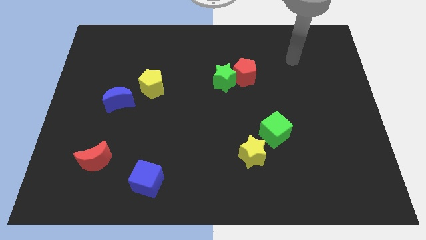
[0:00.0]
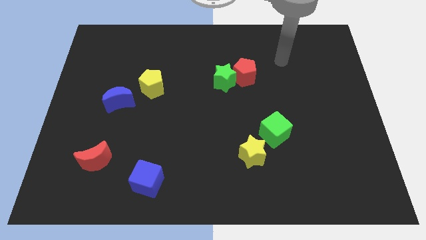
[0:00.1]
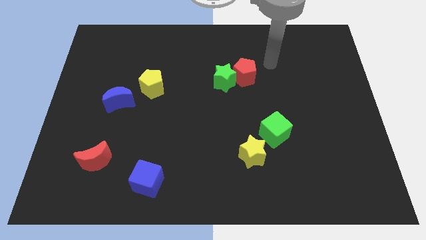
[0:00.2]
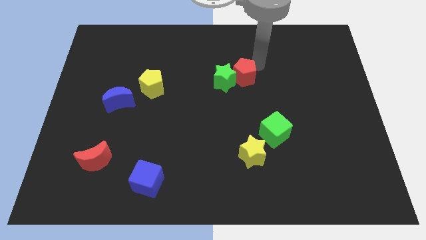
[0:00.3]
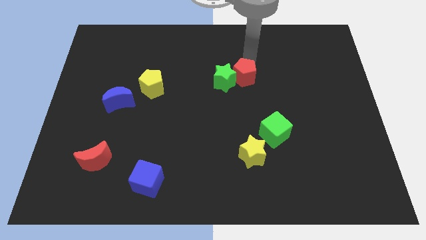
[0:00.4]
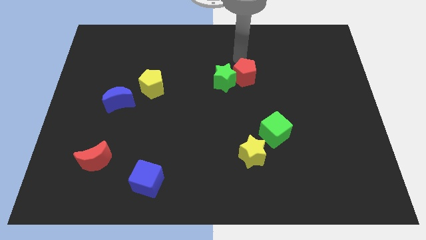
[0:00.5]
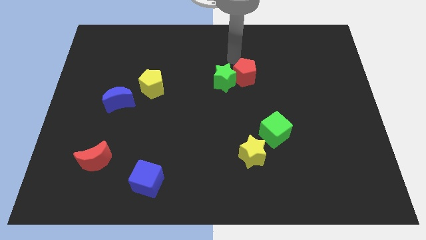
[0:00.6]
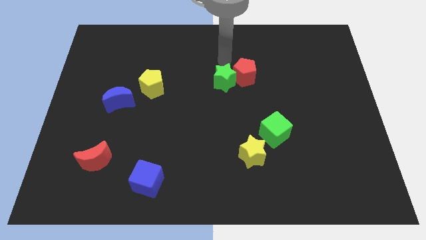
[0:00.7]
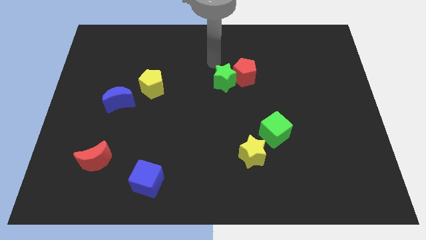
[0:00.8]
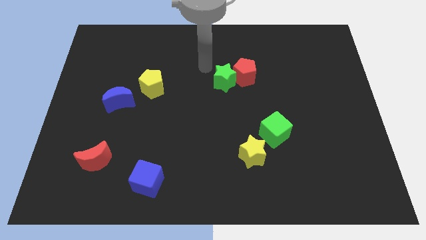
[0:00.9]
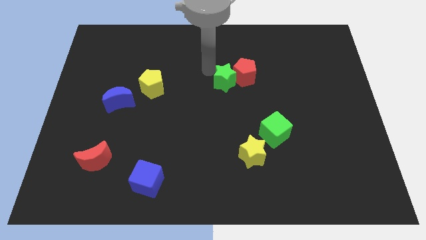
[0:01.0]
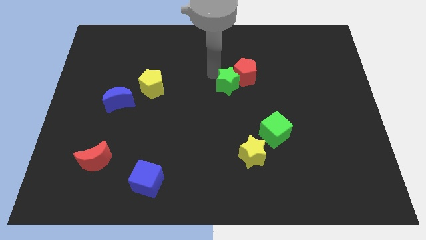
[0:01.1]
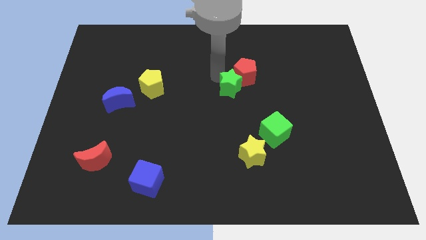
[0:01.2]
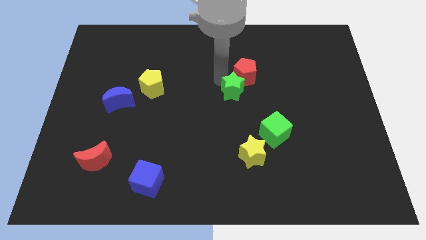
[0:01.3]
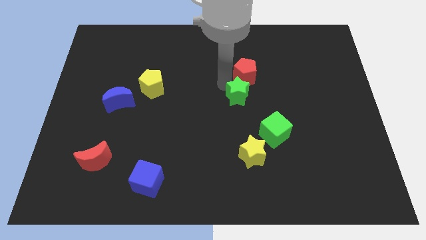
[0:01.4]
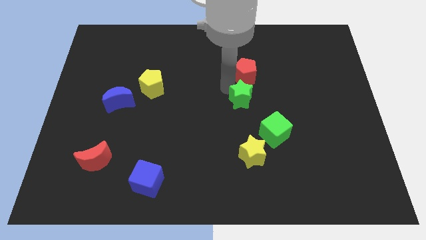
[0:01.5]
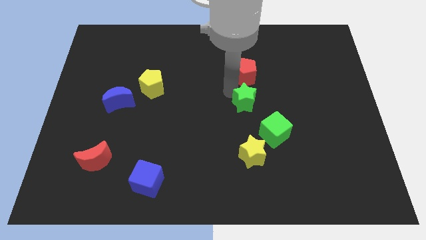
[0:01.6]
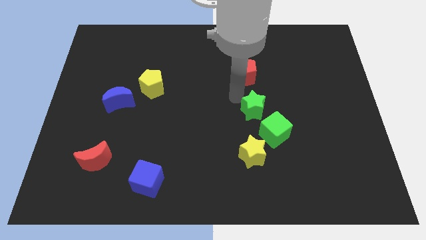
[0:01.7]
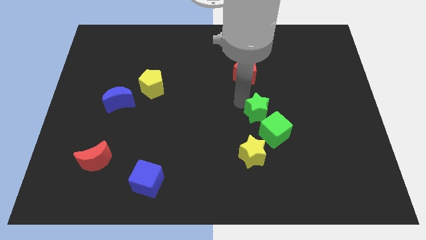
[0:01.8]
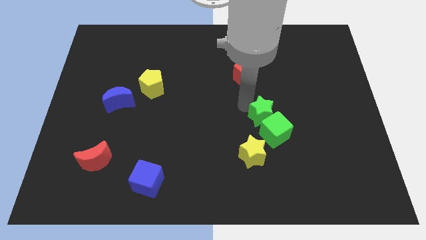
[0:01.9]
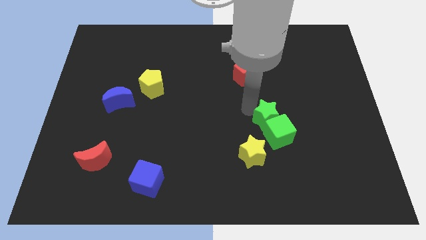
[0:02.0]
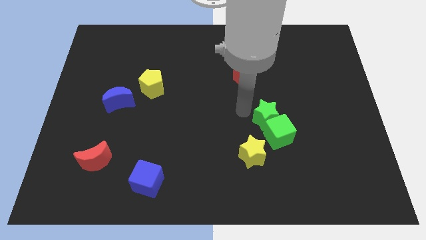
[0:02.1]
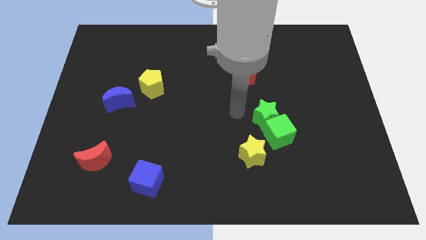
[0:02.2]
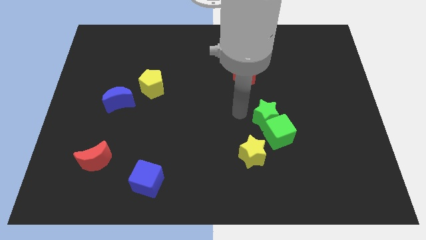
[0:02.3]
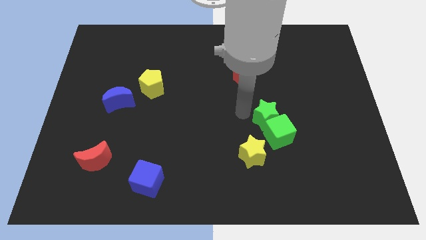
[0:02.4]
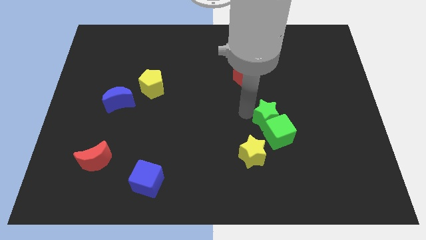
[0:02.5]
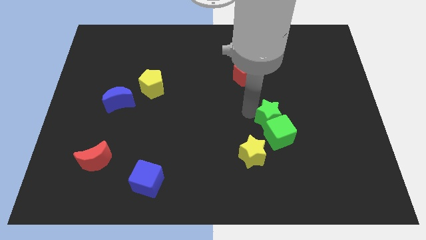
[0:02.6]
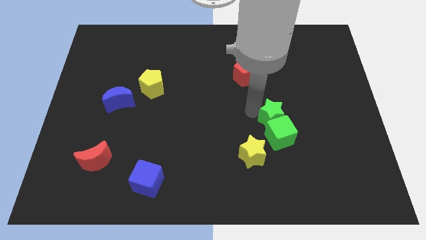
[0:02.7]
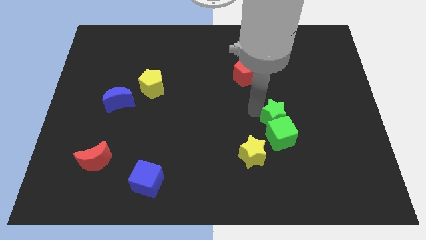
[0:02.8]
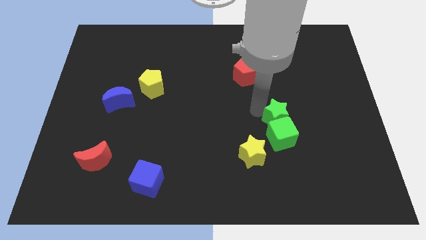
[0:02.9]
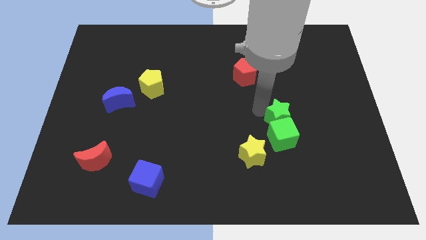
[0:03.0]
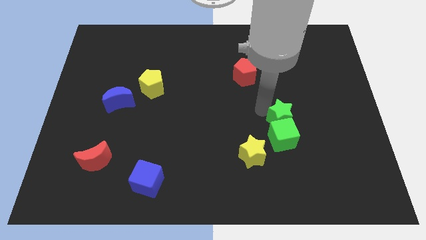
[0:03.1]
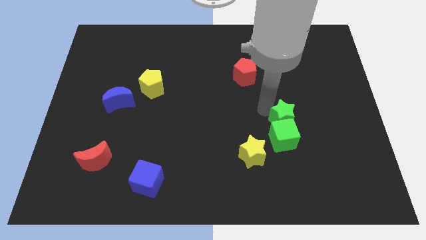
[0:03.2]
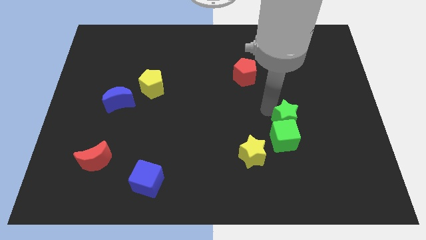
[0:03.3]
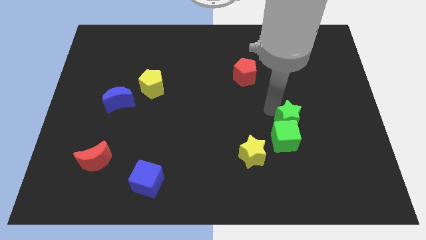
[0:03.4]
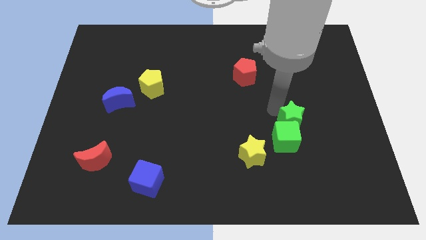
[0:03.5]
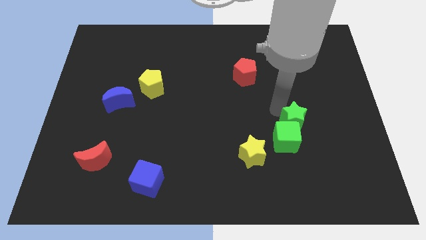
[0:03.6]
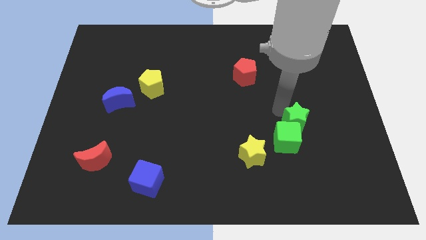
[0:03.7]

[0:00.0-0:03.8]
move the green star down and to the right

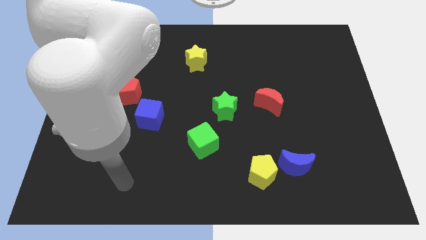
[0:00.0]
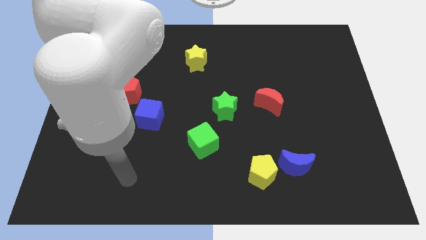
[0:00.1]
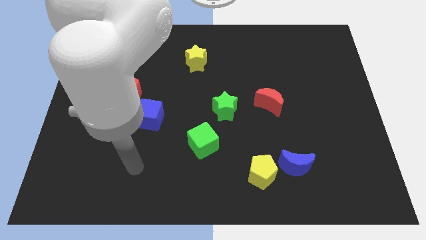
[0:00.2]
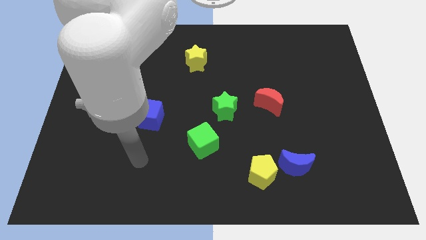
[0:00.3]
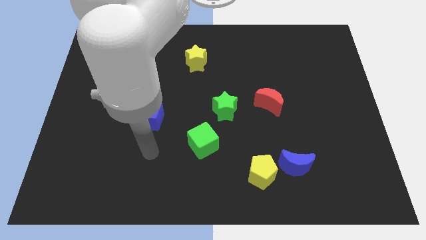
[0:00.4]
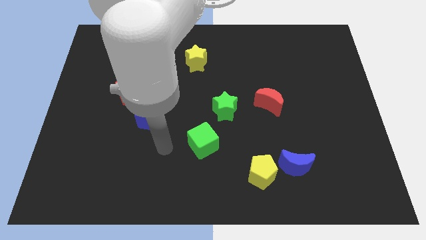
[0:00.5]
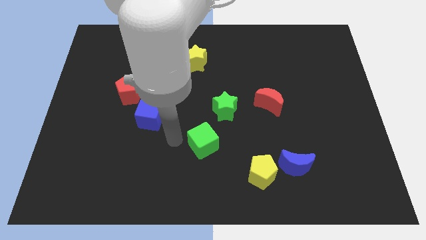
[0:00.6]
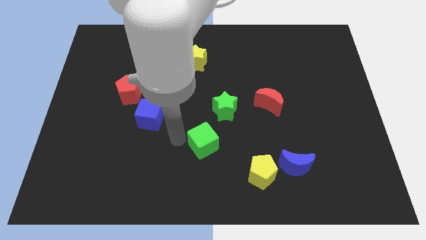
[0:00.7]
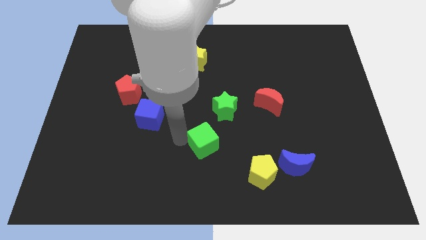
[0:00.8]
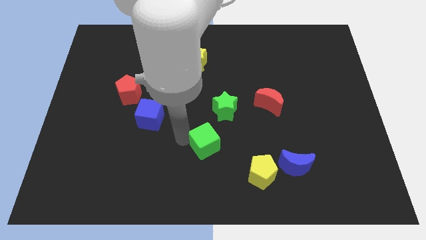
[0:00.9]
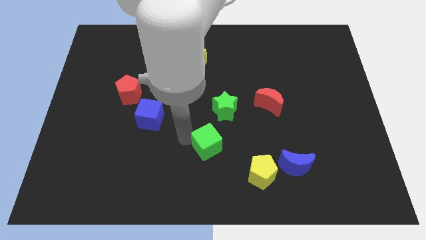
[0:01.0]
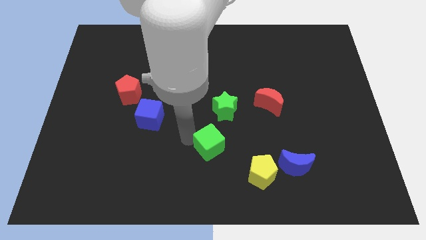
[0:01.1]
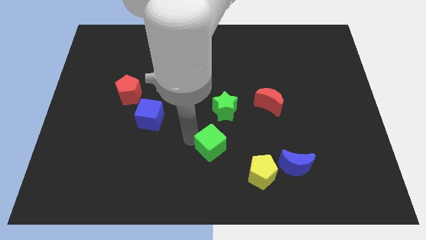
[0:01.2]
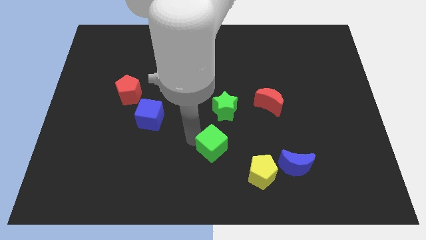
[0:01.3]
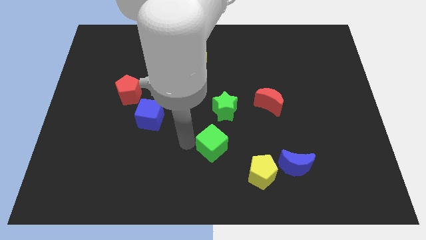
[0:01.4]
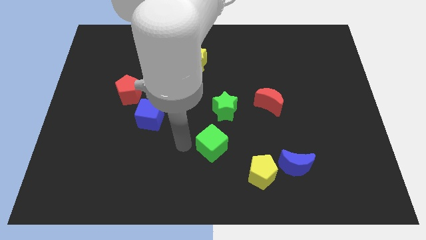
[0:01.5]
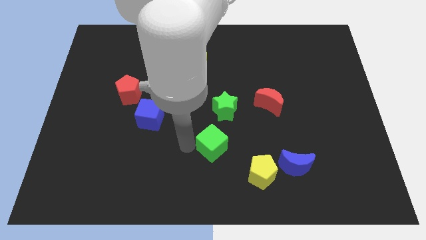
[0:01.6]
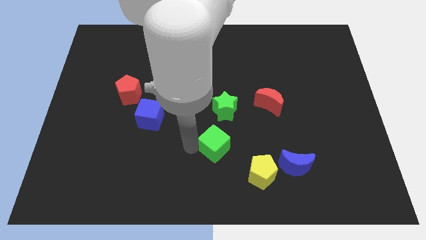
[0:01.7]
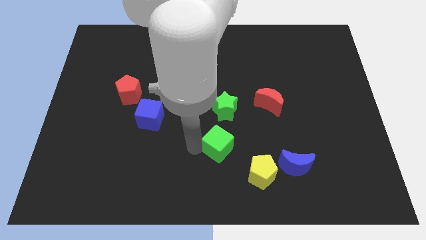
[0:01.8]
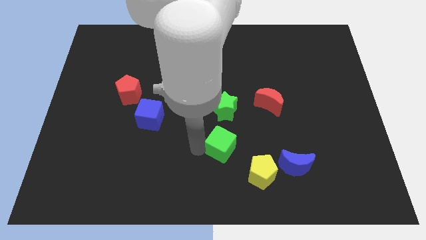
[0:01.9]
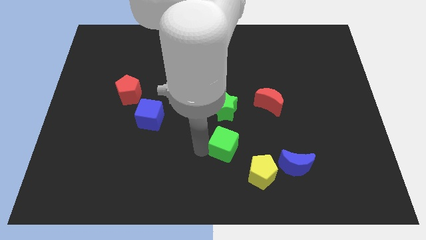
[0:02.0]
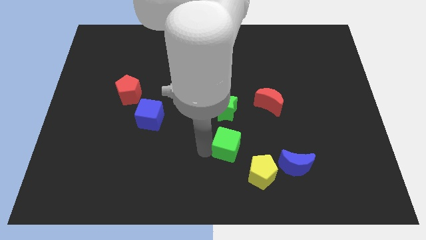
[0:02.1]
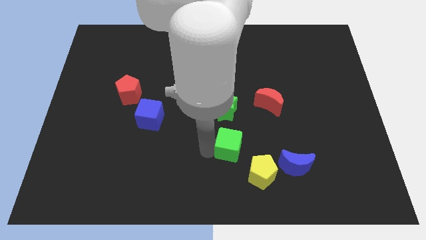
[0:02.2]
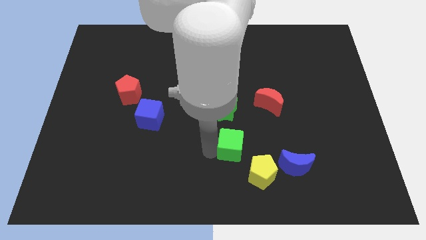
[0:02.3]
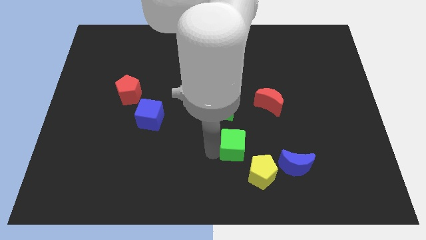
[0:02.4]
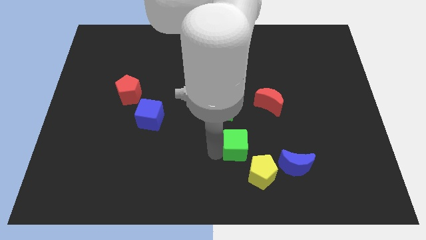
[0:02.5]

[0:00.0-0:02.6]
slide the green cube a bit right

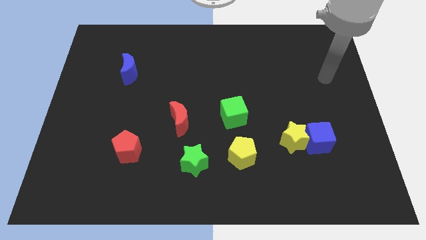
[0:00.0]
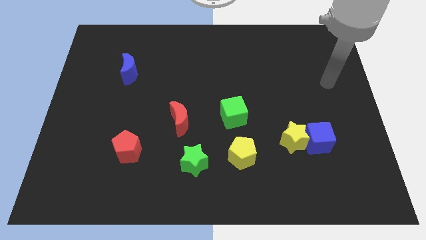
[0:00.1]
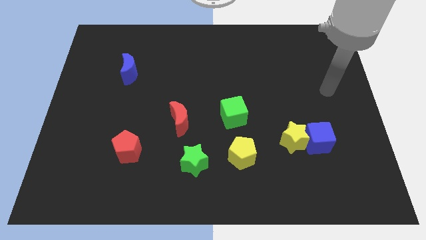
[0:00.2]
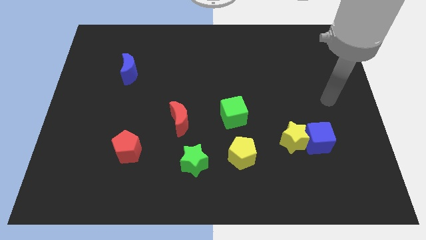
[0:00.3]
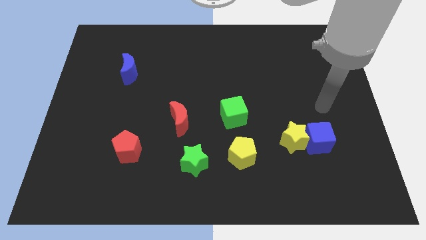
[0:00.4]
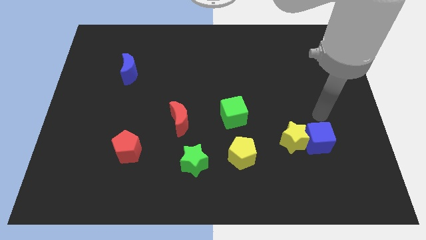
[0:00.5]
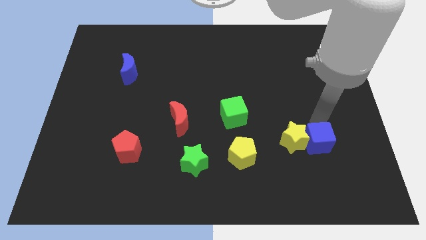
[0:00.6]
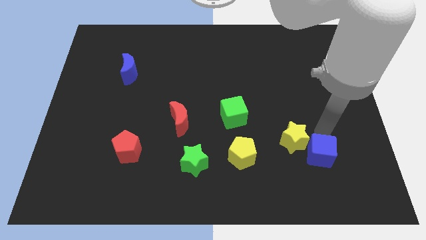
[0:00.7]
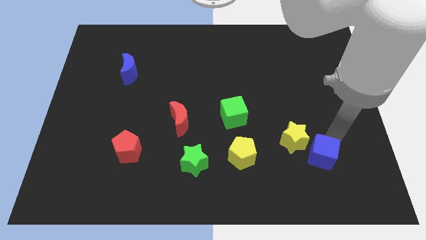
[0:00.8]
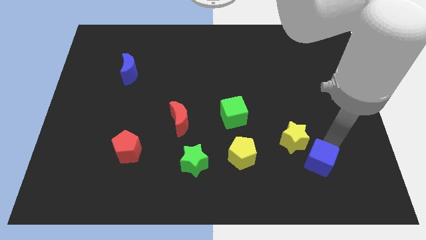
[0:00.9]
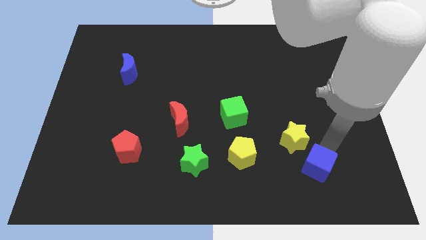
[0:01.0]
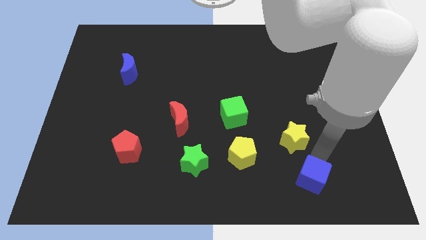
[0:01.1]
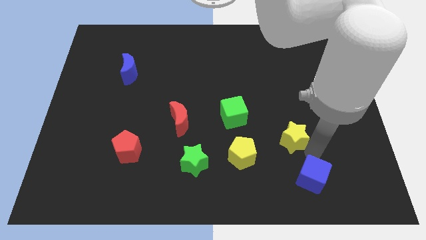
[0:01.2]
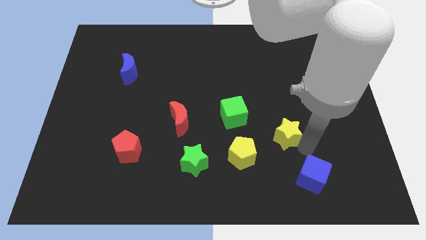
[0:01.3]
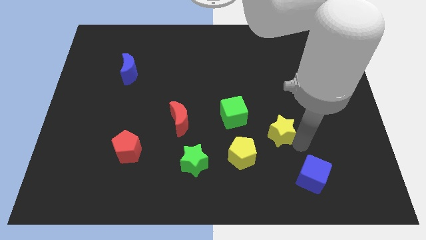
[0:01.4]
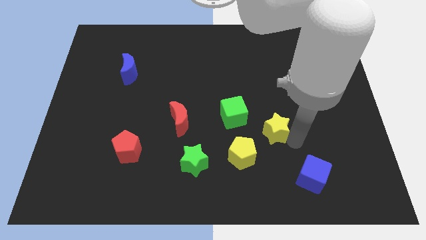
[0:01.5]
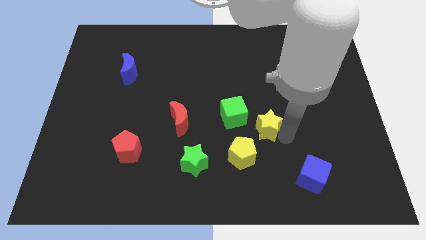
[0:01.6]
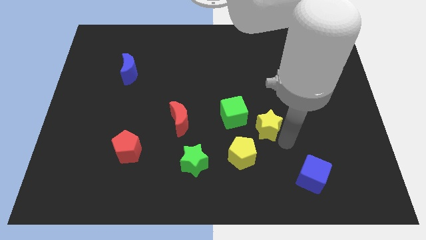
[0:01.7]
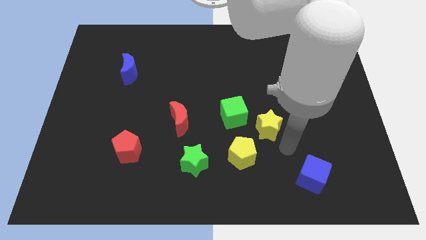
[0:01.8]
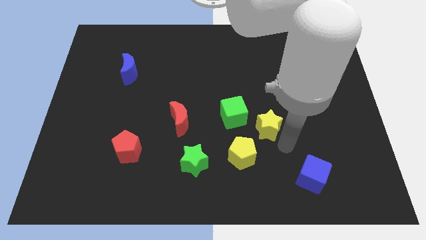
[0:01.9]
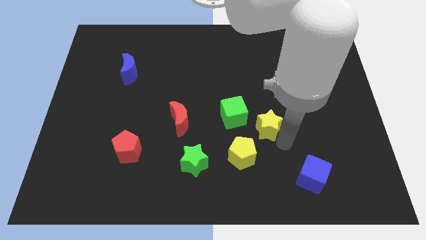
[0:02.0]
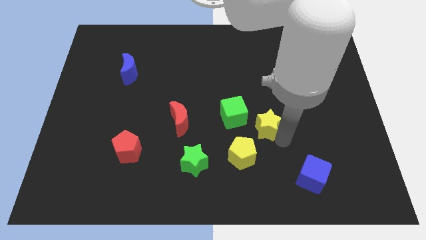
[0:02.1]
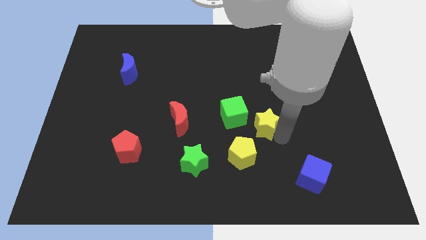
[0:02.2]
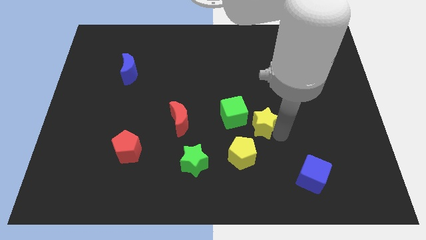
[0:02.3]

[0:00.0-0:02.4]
slide the yellow star slightly upwards and then left
